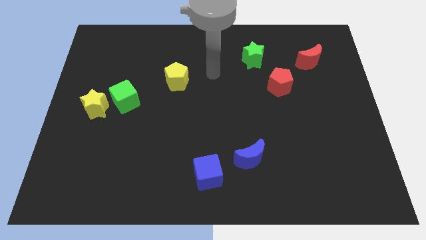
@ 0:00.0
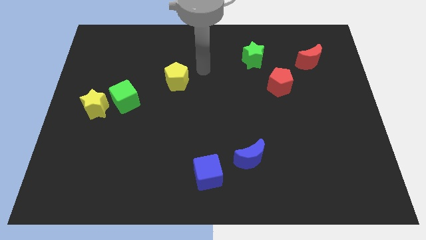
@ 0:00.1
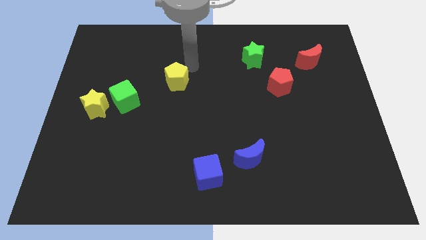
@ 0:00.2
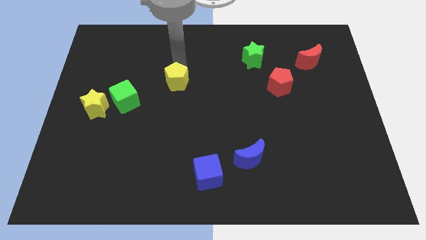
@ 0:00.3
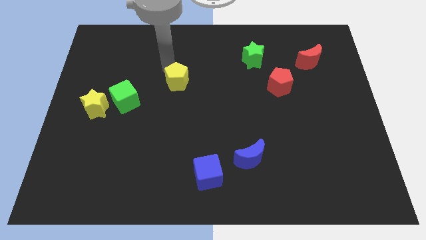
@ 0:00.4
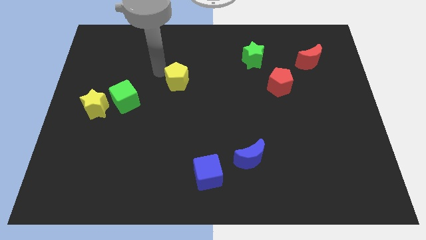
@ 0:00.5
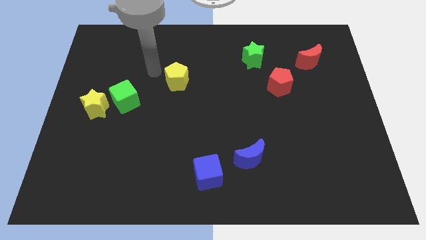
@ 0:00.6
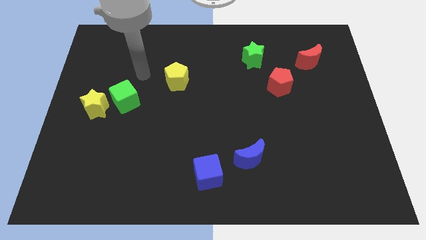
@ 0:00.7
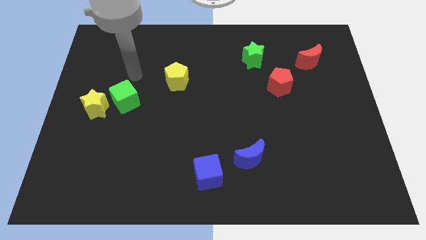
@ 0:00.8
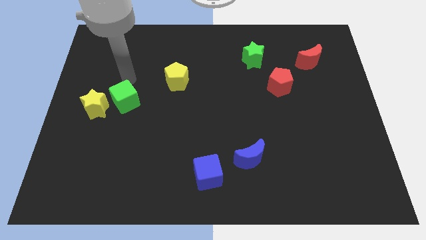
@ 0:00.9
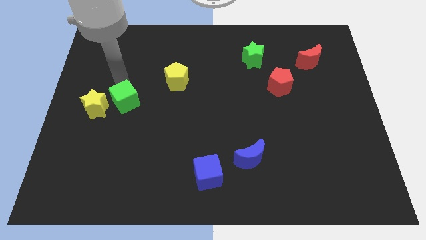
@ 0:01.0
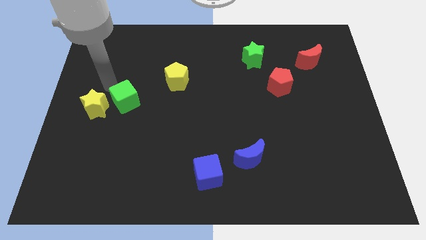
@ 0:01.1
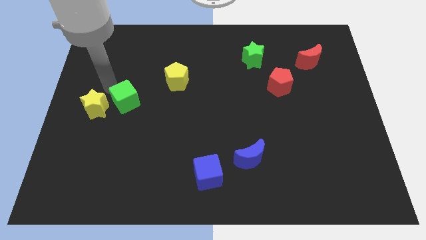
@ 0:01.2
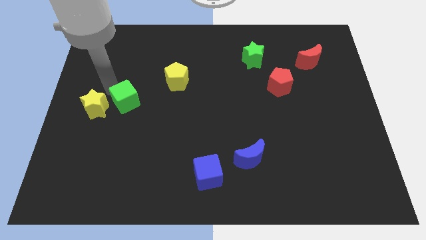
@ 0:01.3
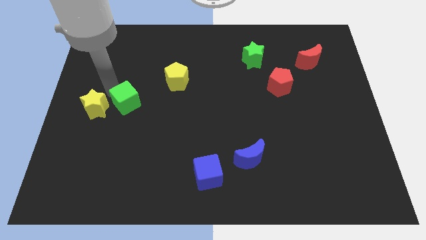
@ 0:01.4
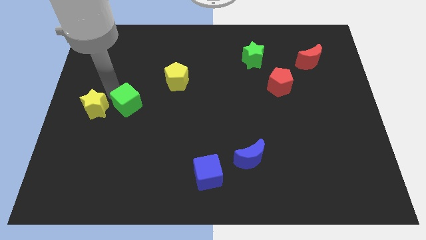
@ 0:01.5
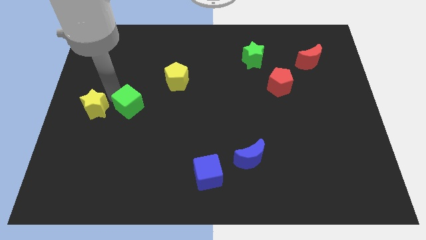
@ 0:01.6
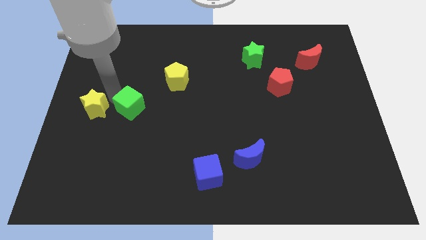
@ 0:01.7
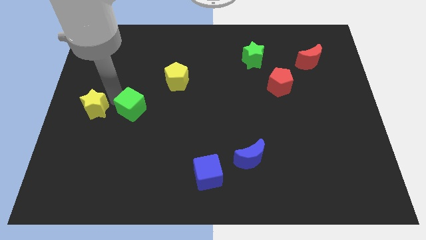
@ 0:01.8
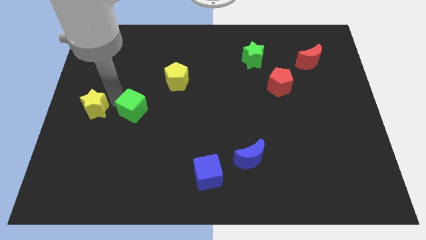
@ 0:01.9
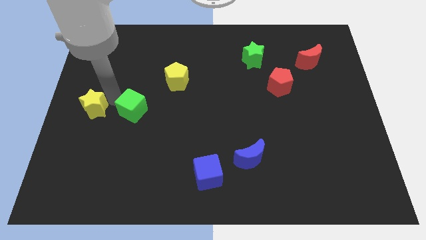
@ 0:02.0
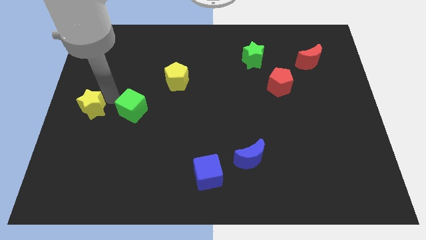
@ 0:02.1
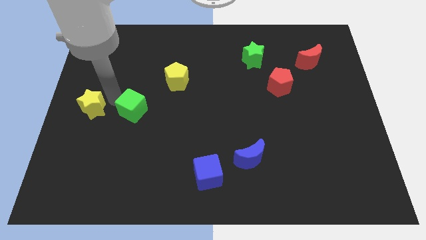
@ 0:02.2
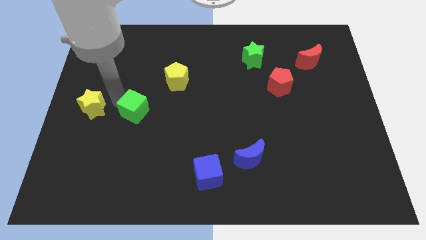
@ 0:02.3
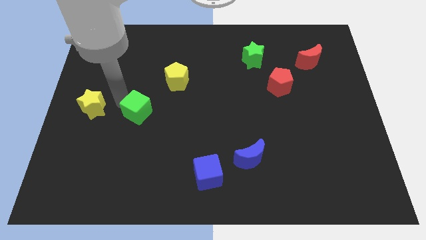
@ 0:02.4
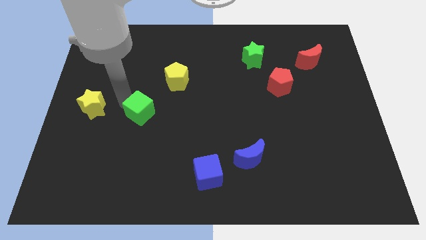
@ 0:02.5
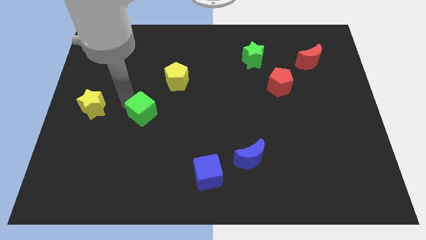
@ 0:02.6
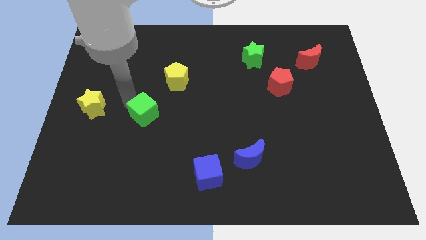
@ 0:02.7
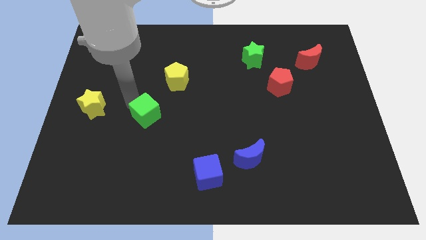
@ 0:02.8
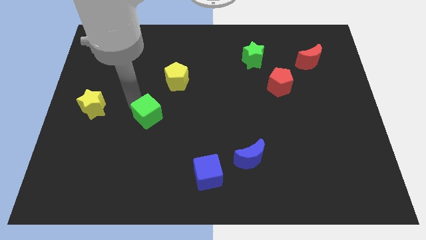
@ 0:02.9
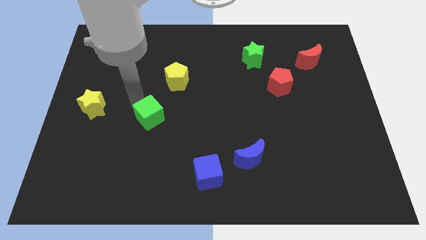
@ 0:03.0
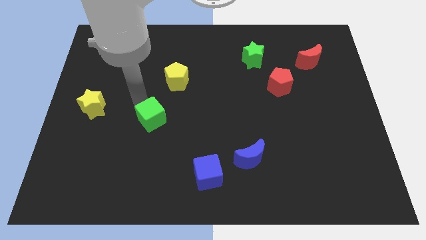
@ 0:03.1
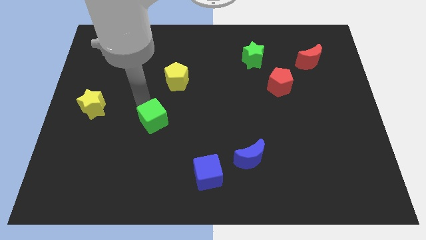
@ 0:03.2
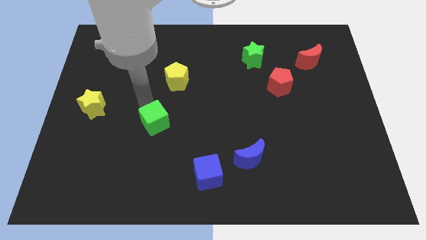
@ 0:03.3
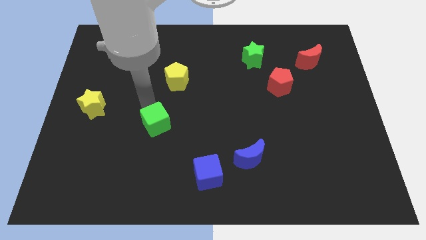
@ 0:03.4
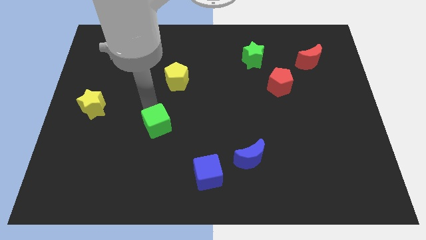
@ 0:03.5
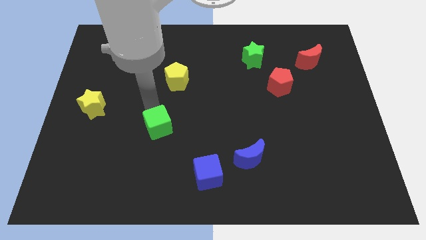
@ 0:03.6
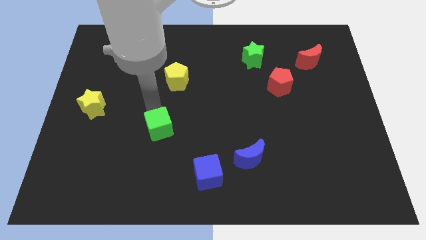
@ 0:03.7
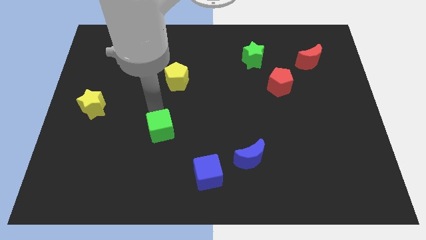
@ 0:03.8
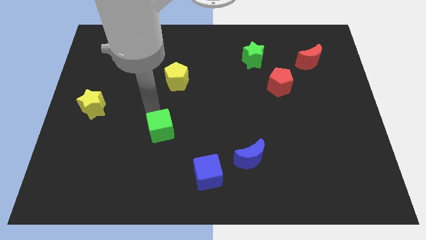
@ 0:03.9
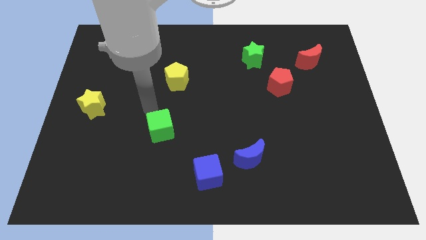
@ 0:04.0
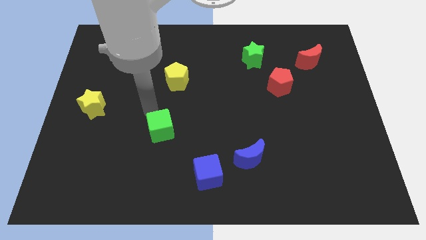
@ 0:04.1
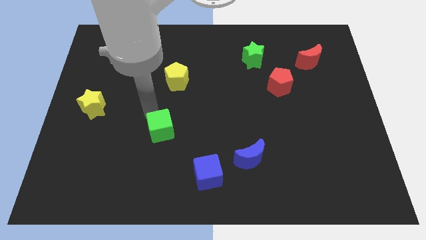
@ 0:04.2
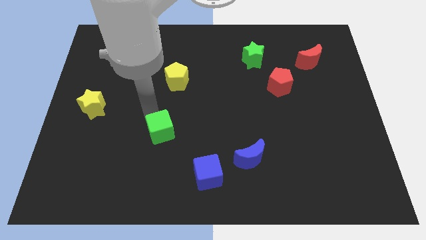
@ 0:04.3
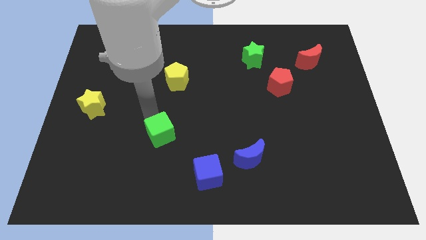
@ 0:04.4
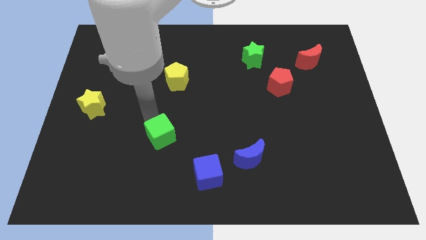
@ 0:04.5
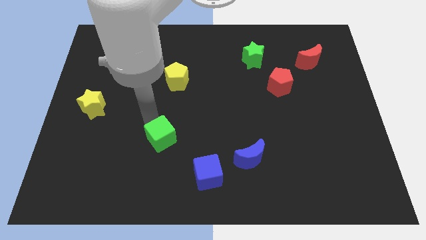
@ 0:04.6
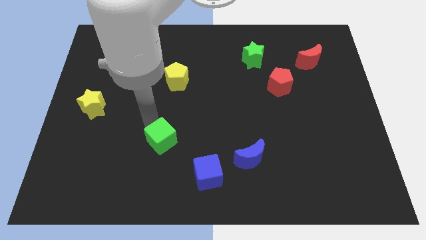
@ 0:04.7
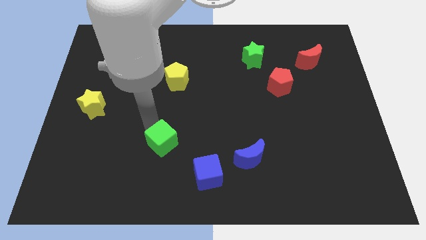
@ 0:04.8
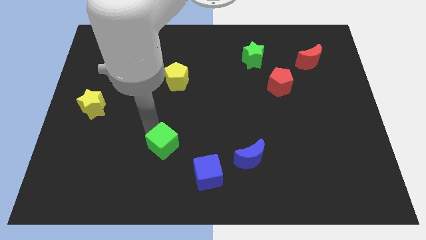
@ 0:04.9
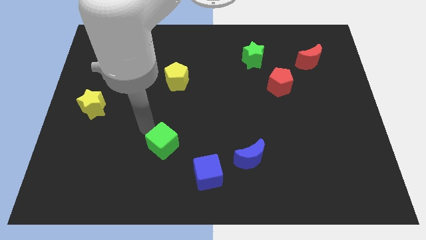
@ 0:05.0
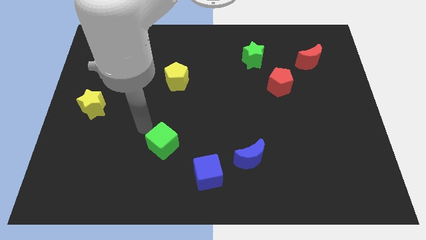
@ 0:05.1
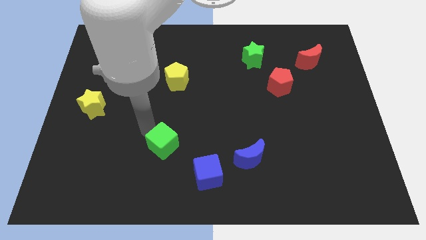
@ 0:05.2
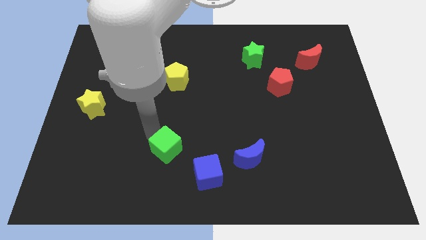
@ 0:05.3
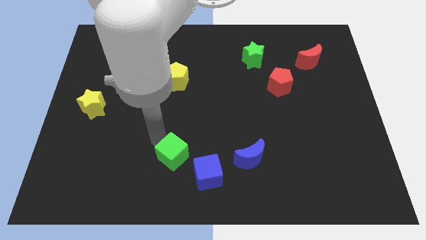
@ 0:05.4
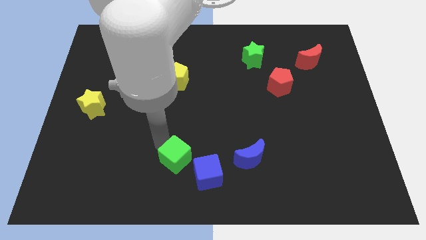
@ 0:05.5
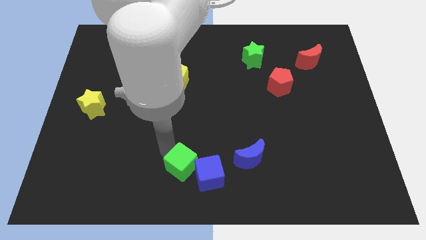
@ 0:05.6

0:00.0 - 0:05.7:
slide the green cube towards the blue cube

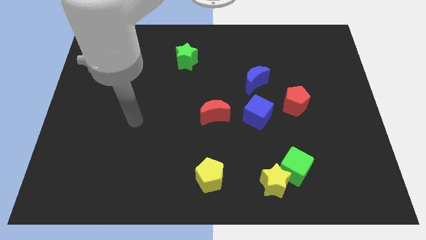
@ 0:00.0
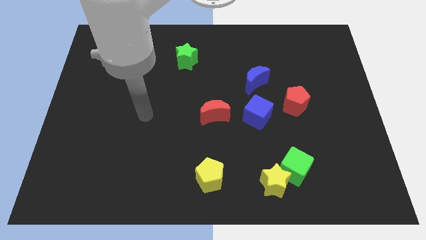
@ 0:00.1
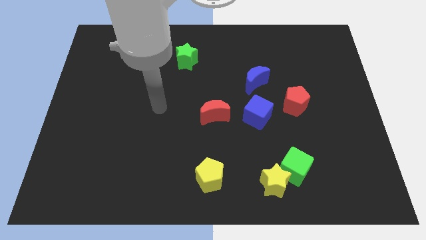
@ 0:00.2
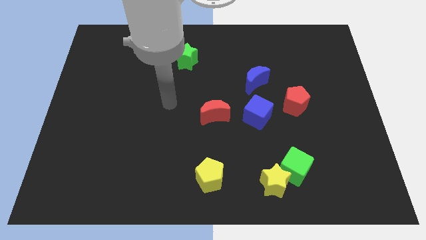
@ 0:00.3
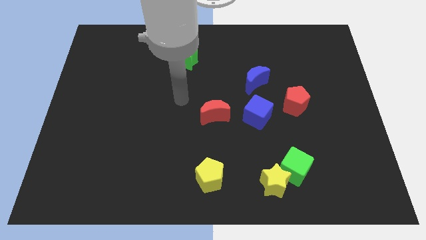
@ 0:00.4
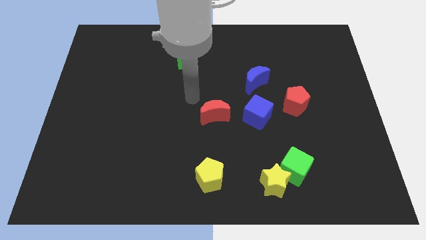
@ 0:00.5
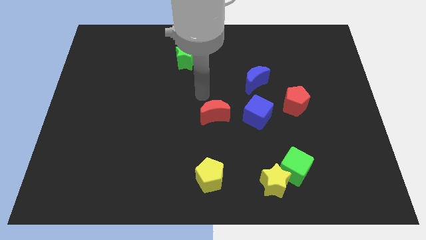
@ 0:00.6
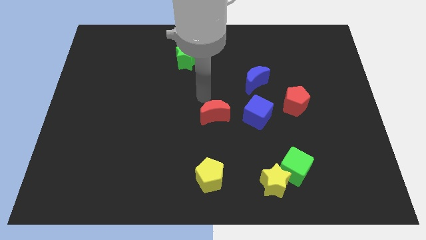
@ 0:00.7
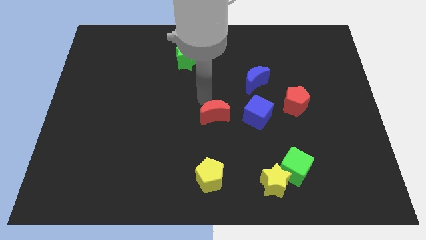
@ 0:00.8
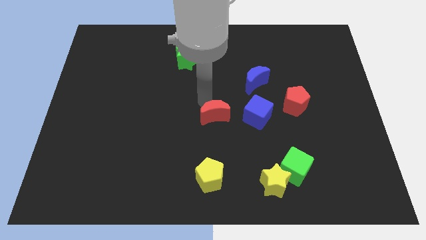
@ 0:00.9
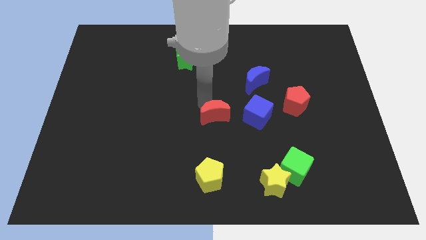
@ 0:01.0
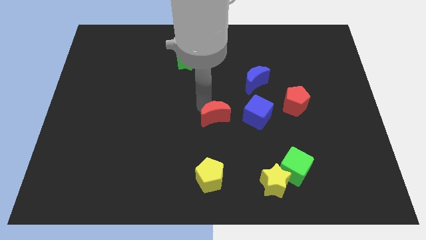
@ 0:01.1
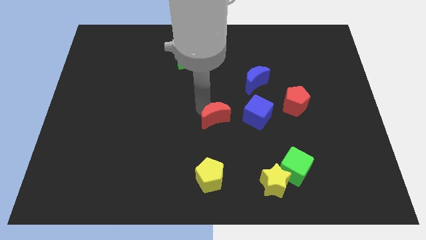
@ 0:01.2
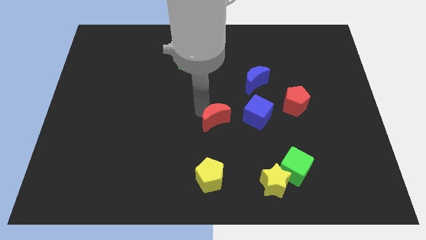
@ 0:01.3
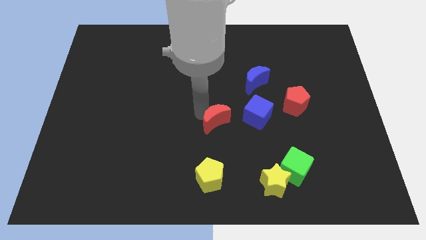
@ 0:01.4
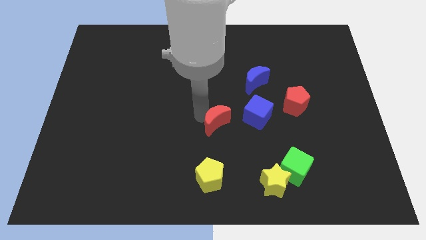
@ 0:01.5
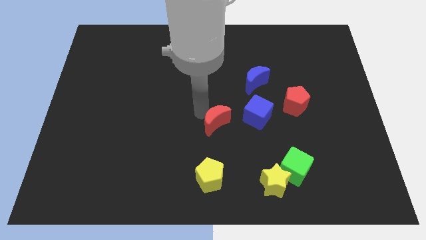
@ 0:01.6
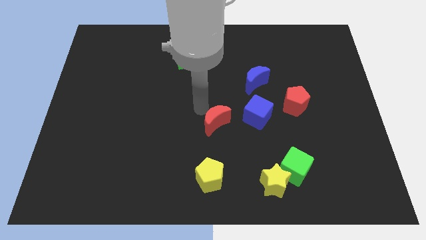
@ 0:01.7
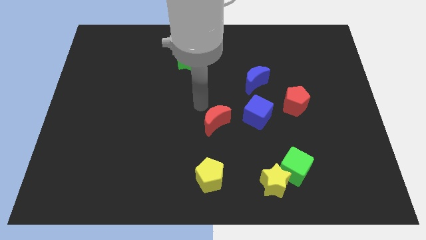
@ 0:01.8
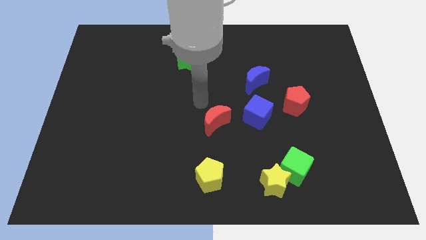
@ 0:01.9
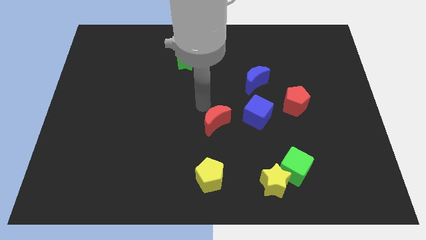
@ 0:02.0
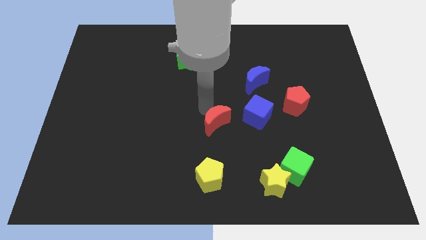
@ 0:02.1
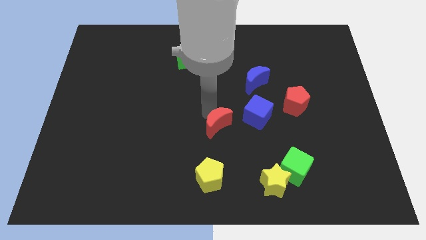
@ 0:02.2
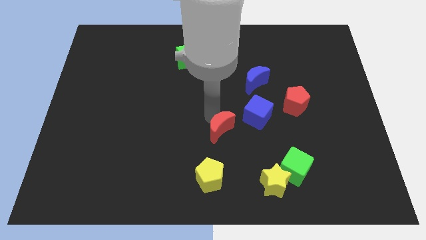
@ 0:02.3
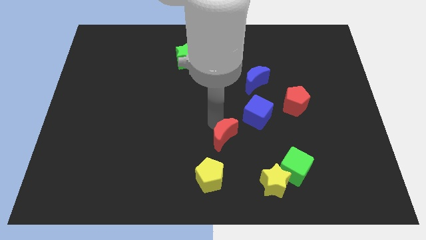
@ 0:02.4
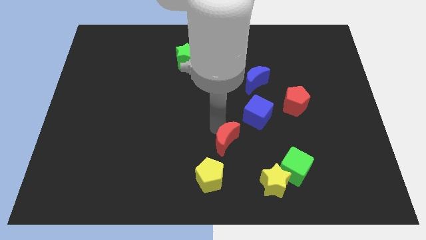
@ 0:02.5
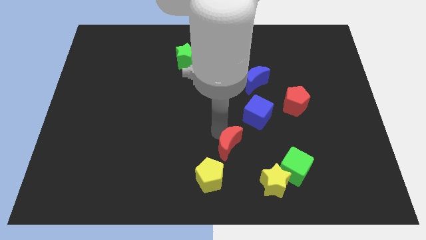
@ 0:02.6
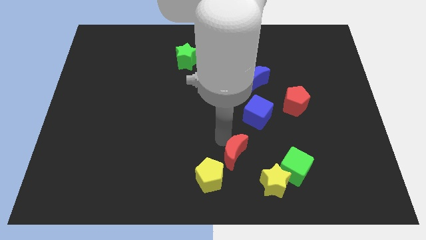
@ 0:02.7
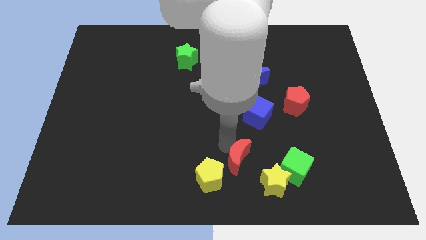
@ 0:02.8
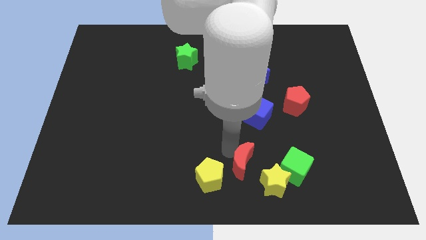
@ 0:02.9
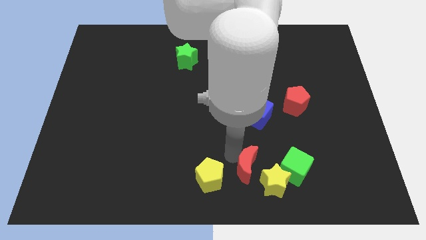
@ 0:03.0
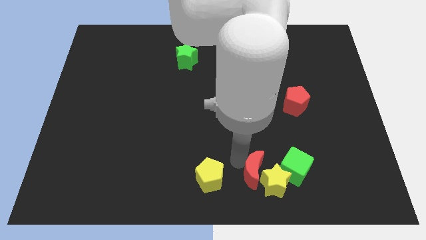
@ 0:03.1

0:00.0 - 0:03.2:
push the red moon to the yellow star
